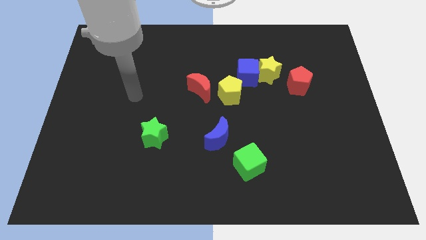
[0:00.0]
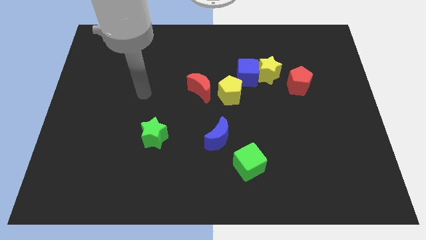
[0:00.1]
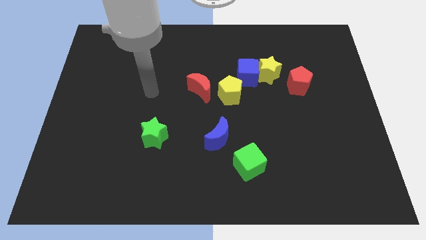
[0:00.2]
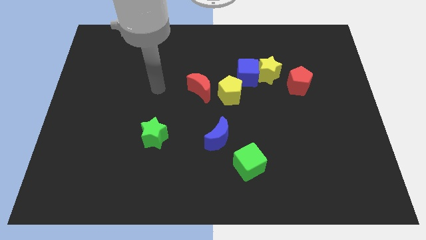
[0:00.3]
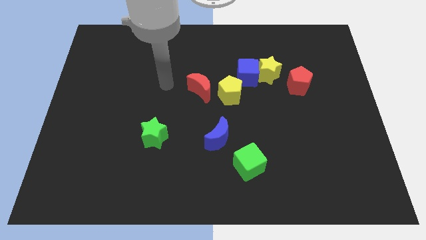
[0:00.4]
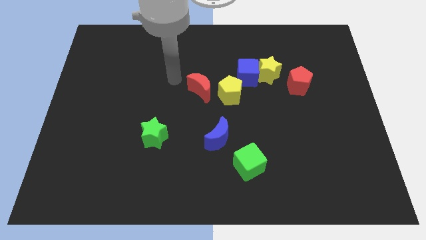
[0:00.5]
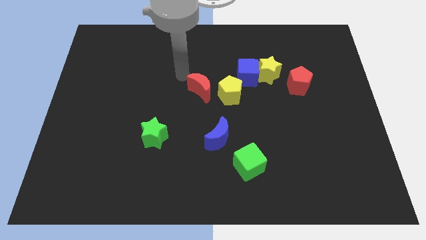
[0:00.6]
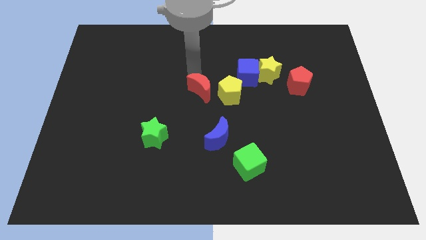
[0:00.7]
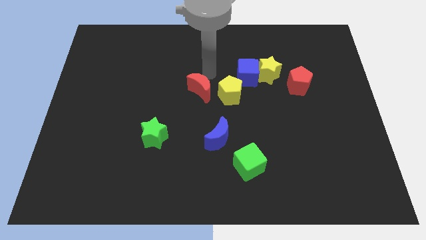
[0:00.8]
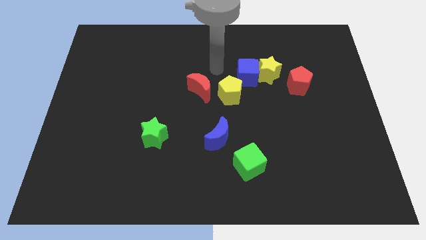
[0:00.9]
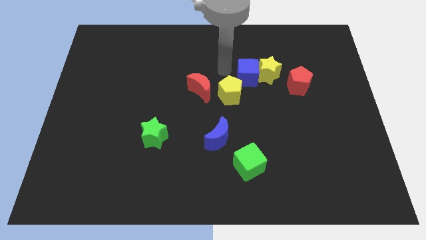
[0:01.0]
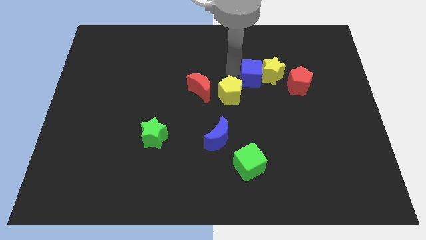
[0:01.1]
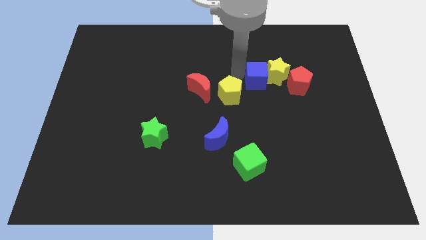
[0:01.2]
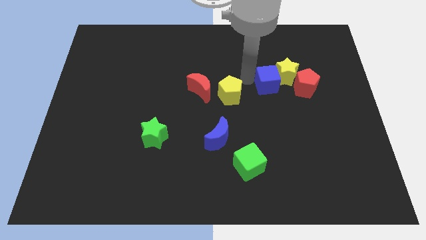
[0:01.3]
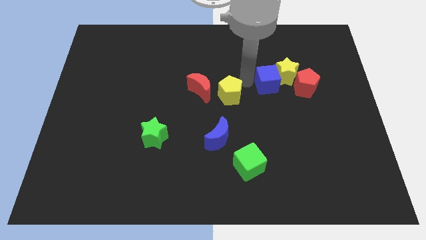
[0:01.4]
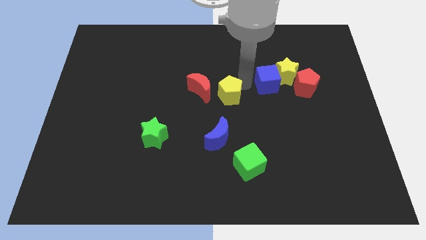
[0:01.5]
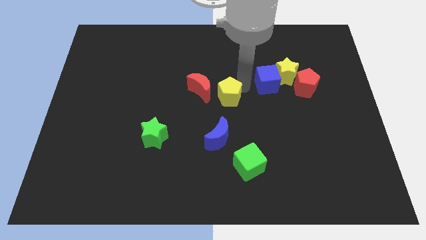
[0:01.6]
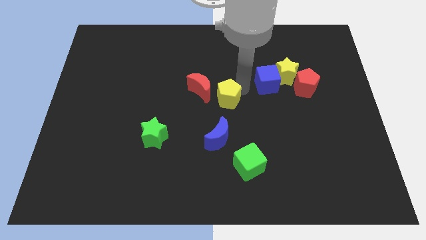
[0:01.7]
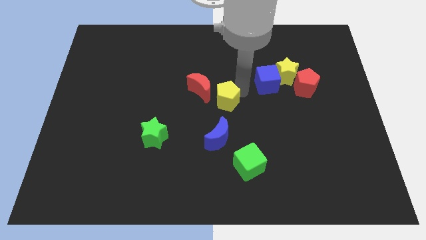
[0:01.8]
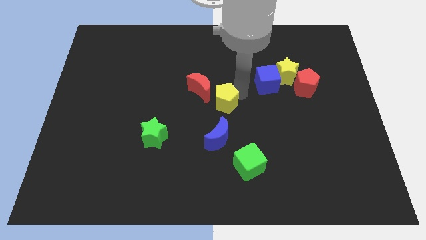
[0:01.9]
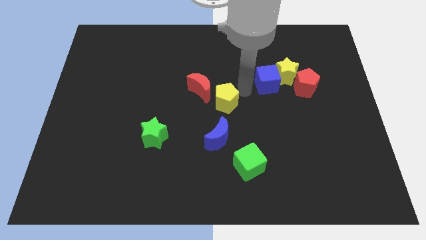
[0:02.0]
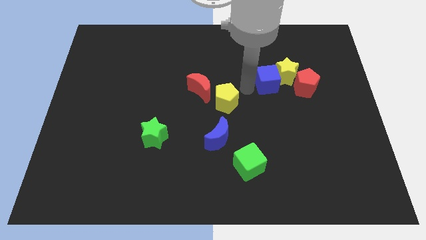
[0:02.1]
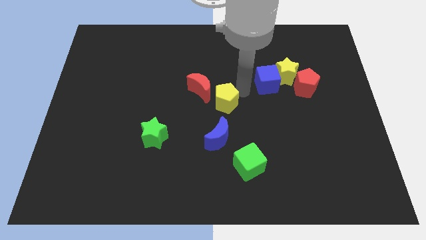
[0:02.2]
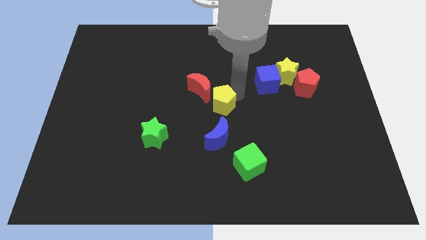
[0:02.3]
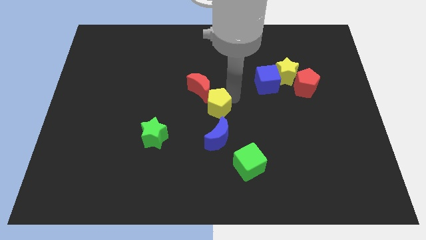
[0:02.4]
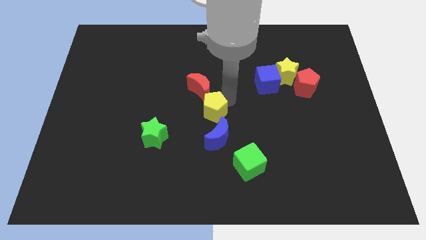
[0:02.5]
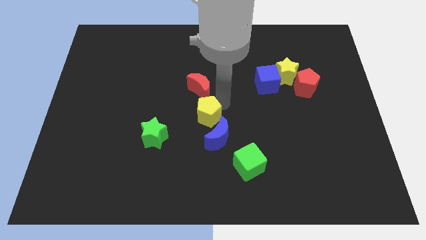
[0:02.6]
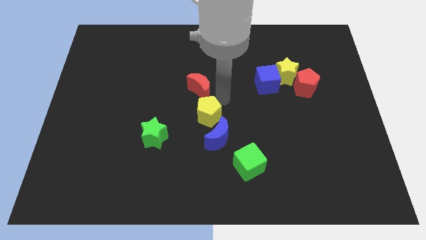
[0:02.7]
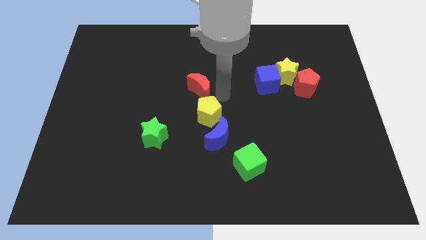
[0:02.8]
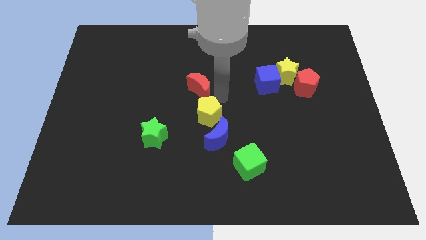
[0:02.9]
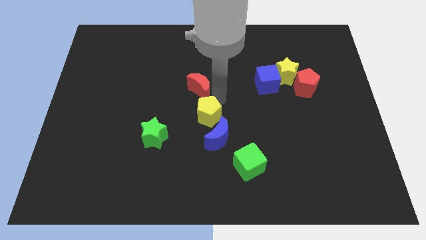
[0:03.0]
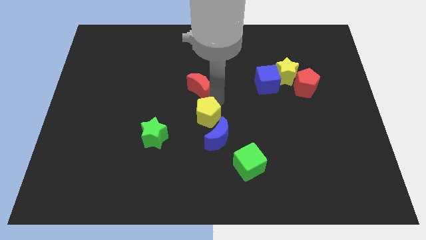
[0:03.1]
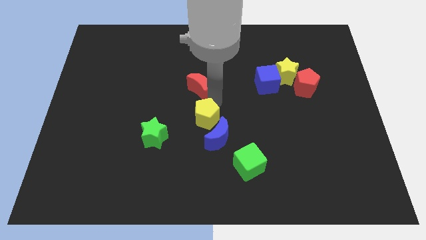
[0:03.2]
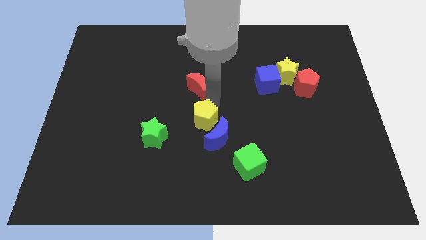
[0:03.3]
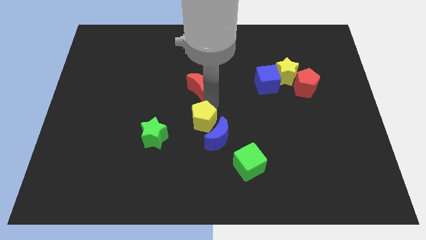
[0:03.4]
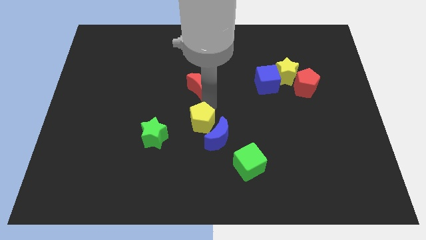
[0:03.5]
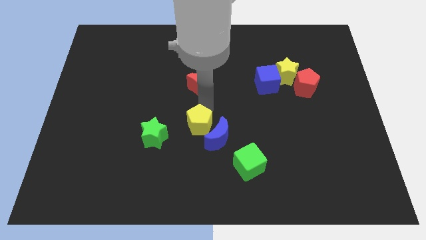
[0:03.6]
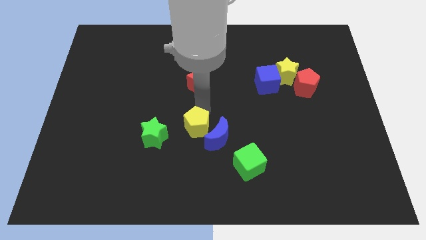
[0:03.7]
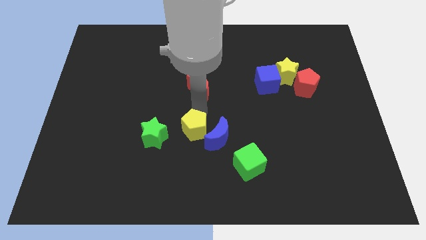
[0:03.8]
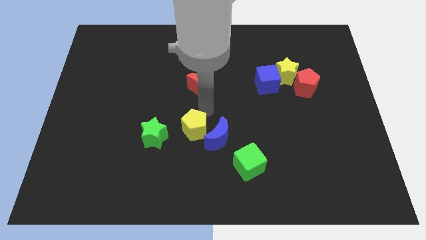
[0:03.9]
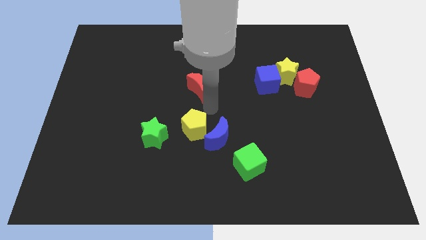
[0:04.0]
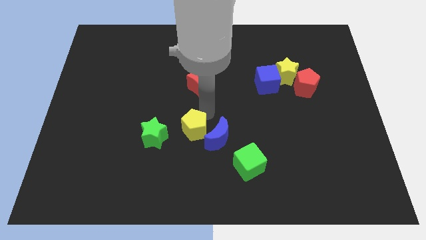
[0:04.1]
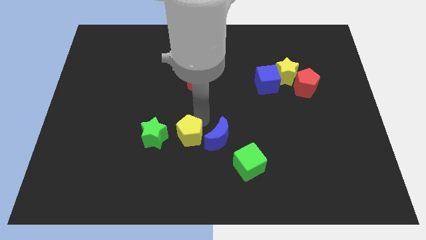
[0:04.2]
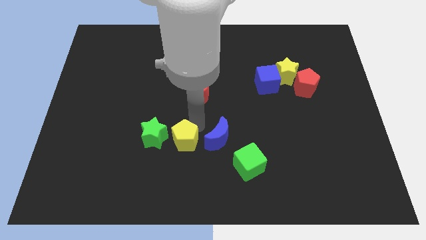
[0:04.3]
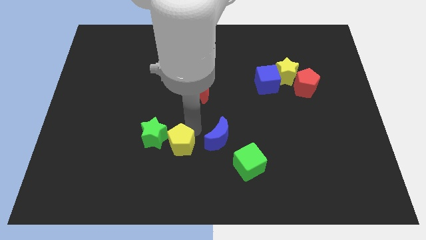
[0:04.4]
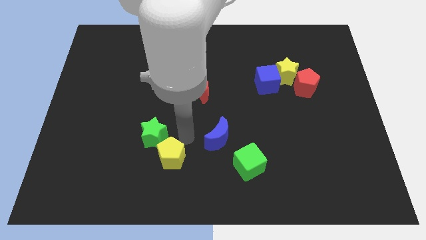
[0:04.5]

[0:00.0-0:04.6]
move the yellow pentagon down and then to the left

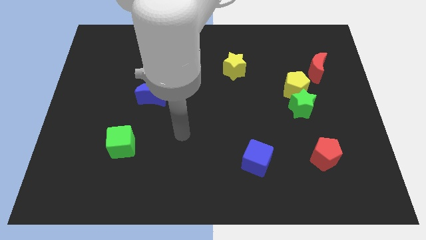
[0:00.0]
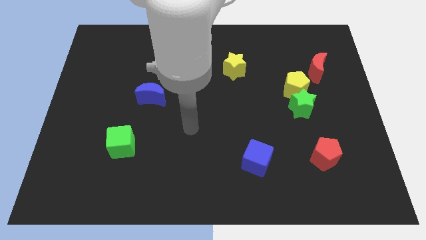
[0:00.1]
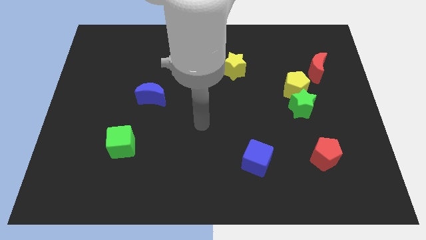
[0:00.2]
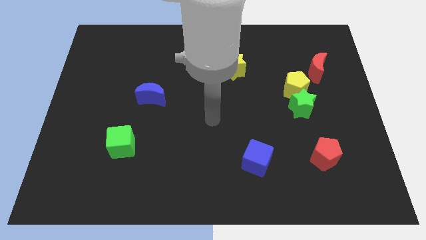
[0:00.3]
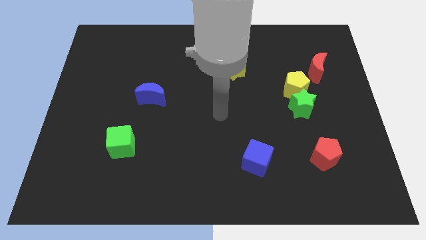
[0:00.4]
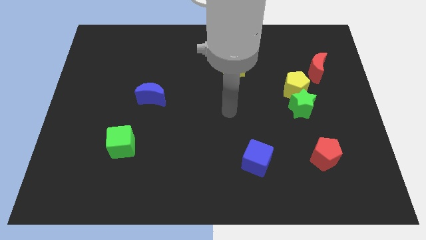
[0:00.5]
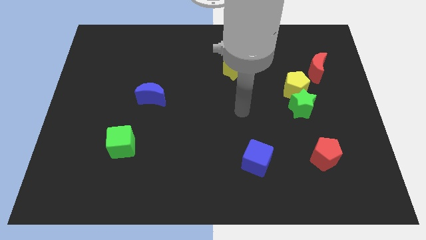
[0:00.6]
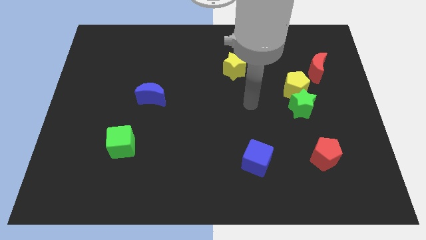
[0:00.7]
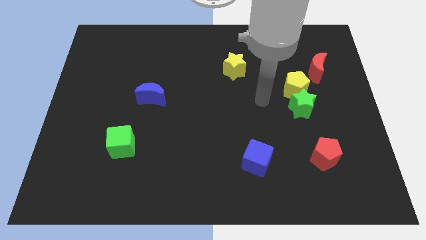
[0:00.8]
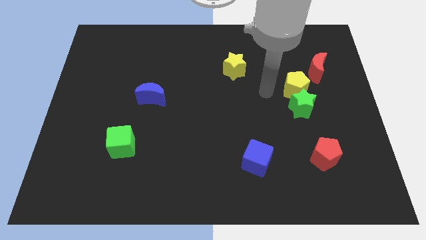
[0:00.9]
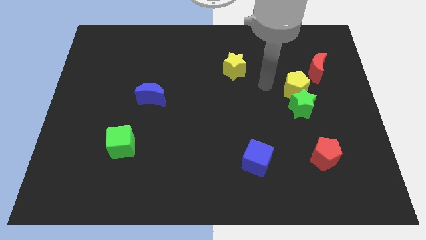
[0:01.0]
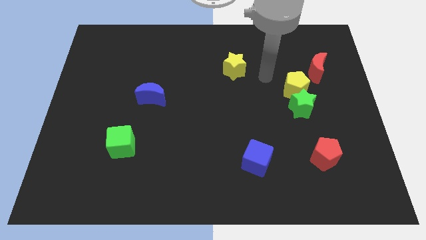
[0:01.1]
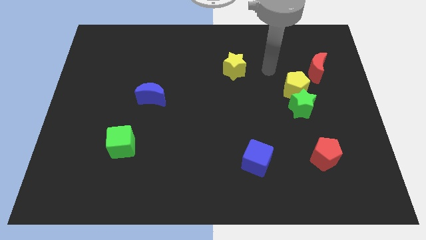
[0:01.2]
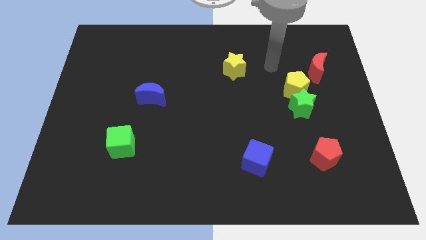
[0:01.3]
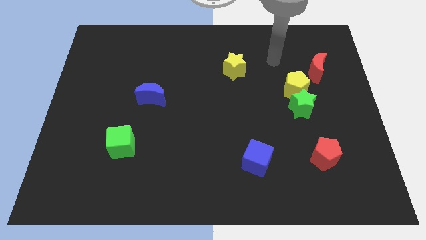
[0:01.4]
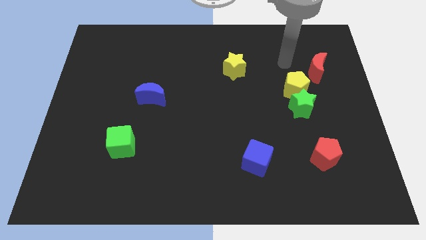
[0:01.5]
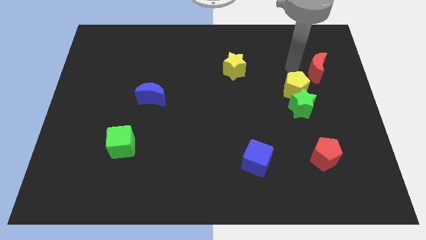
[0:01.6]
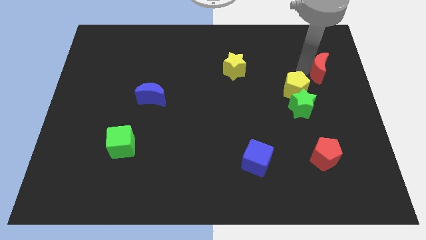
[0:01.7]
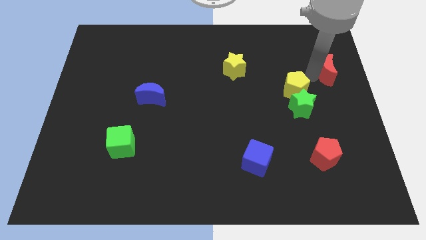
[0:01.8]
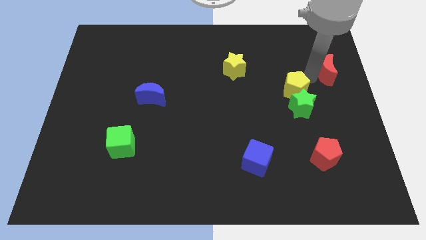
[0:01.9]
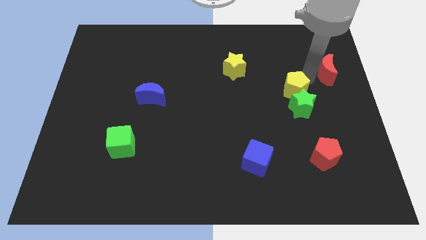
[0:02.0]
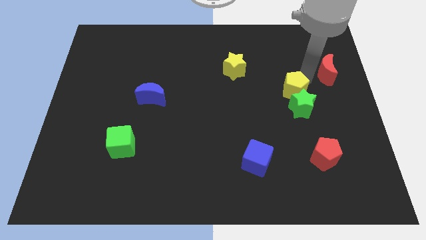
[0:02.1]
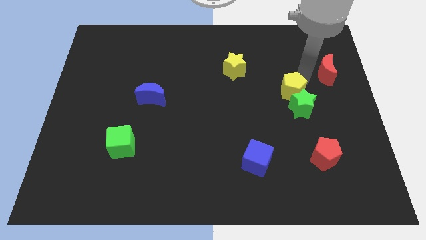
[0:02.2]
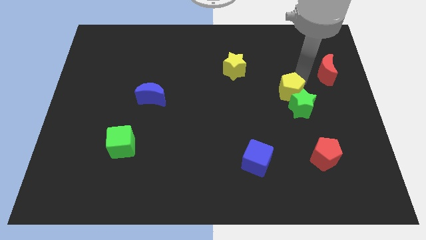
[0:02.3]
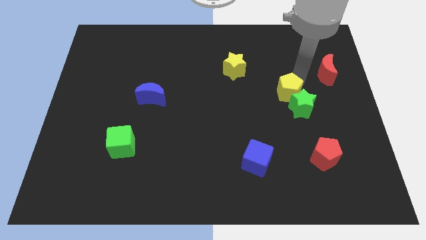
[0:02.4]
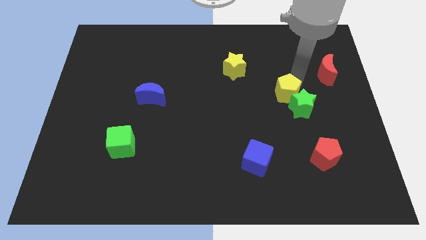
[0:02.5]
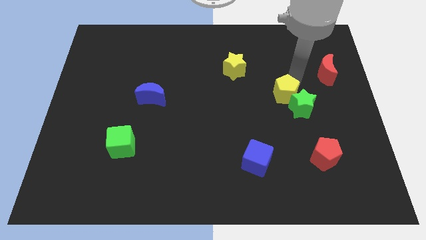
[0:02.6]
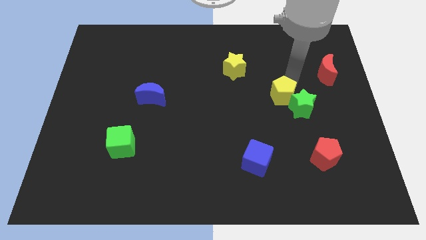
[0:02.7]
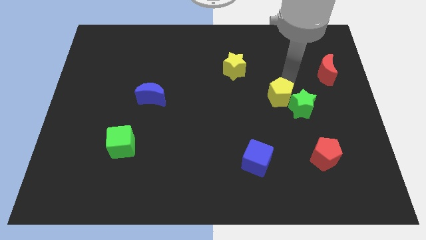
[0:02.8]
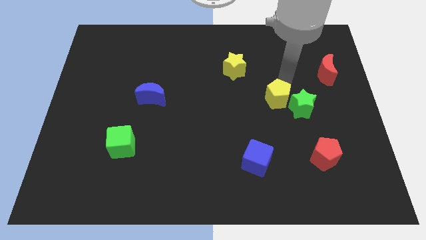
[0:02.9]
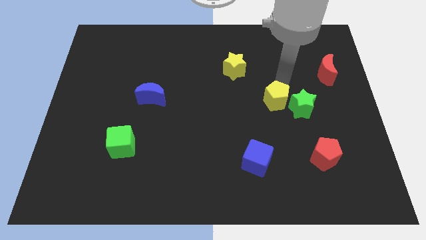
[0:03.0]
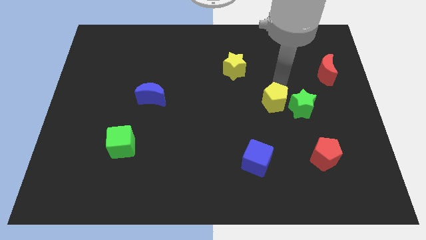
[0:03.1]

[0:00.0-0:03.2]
move the yellow pentagon downwards and then left a little bit

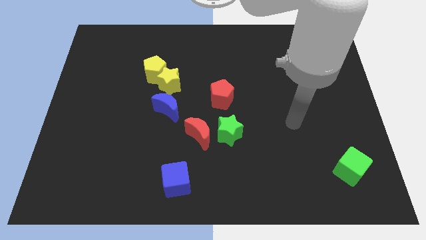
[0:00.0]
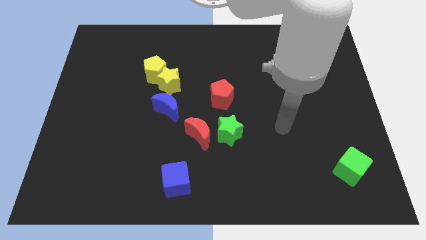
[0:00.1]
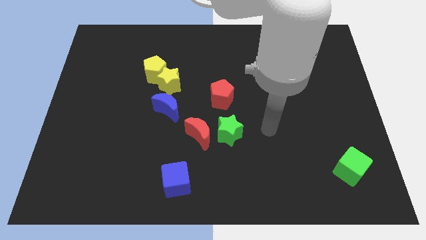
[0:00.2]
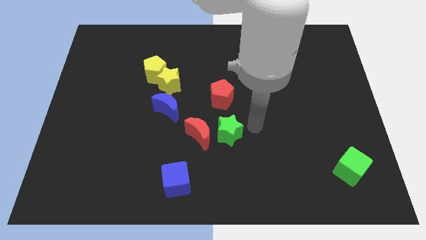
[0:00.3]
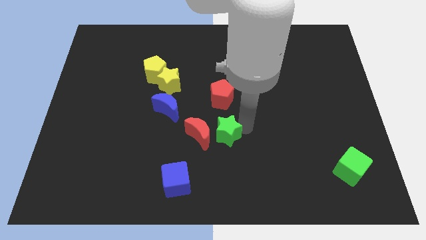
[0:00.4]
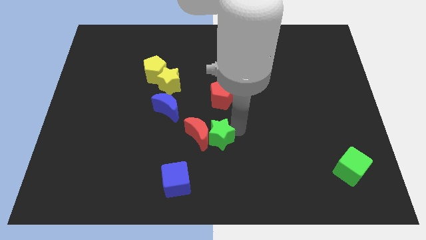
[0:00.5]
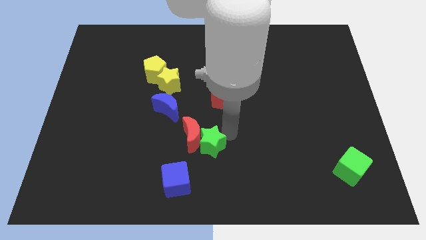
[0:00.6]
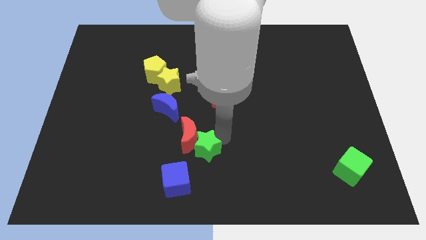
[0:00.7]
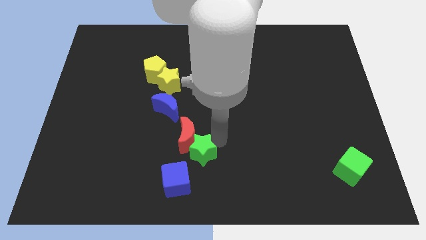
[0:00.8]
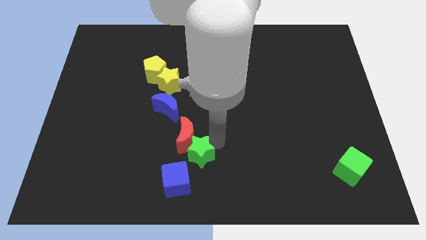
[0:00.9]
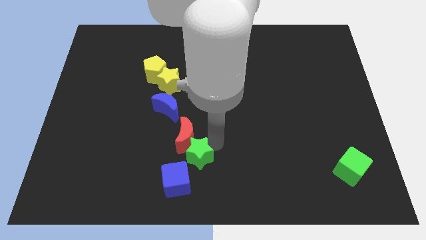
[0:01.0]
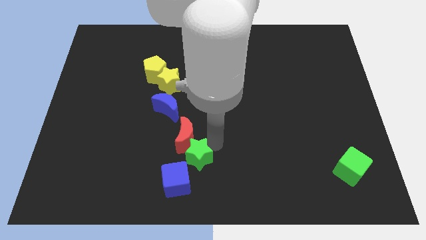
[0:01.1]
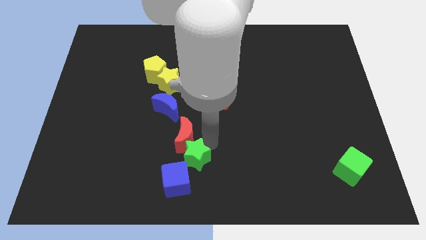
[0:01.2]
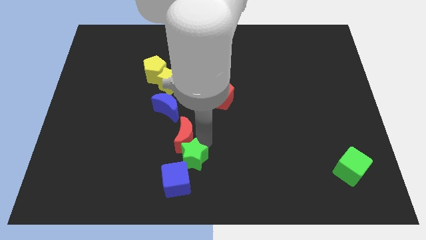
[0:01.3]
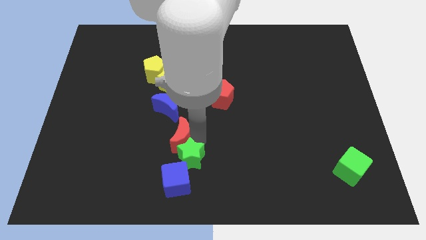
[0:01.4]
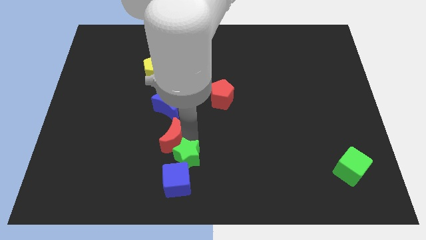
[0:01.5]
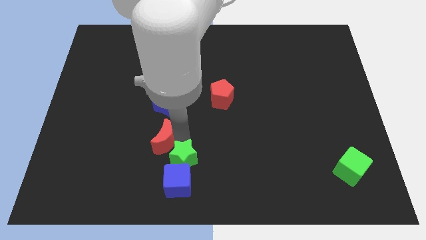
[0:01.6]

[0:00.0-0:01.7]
slightly move the red moon to the left
